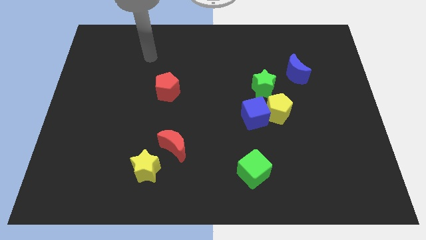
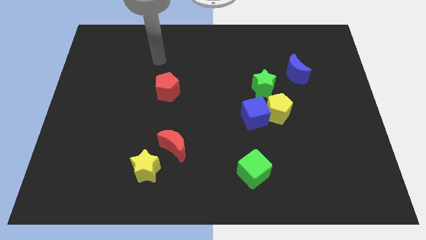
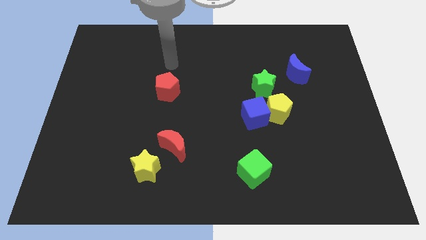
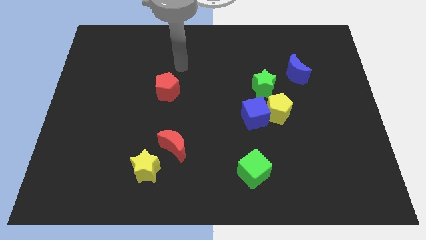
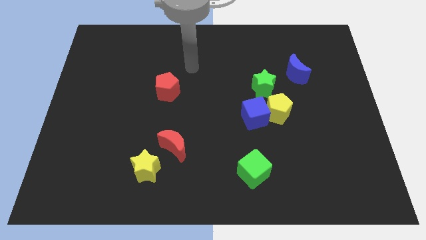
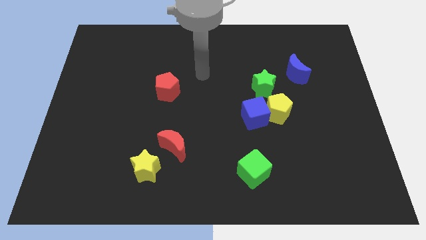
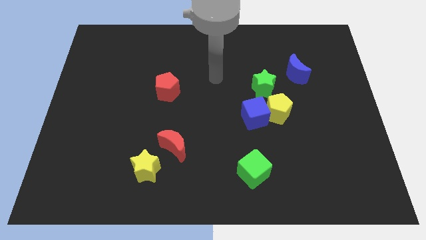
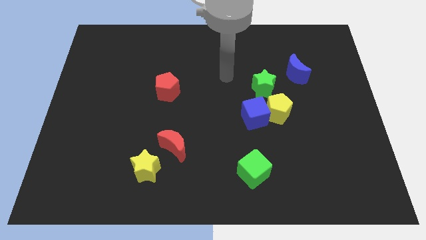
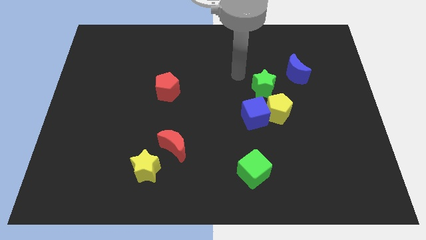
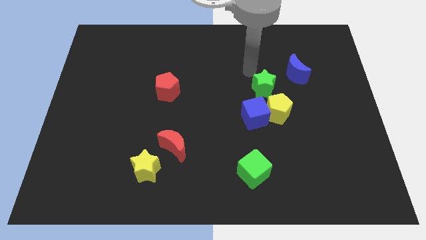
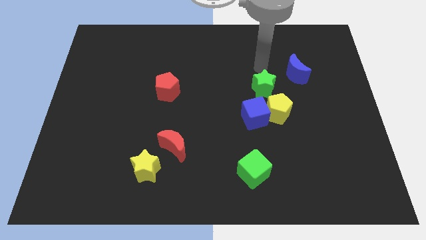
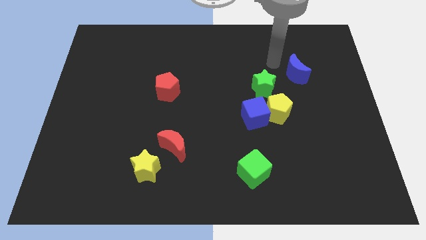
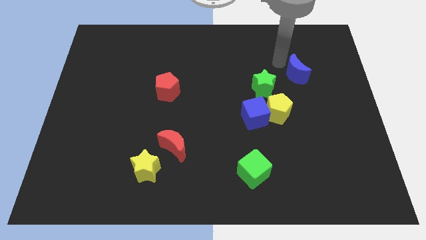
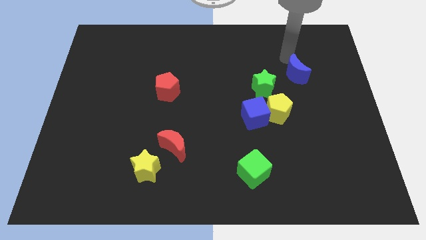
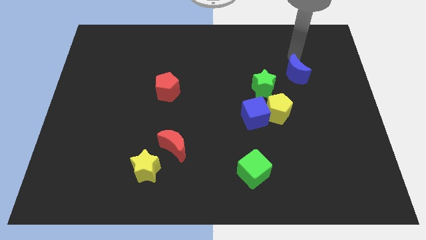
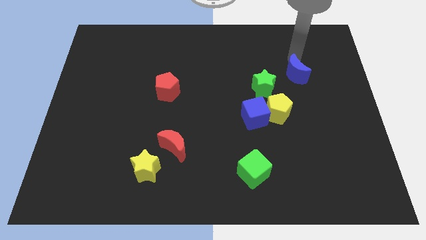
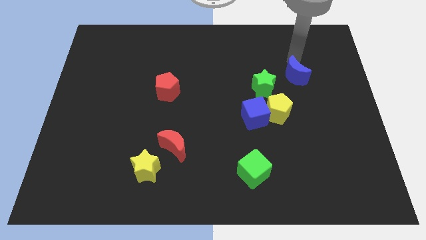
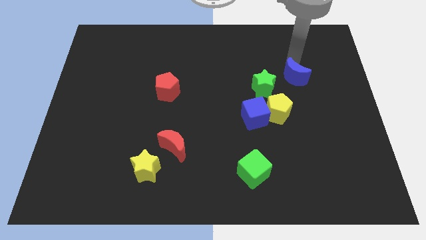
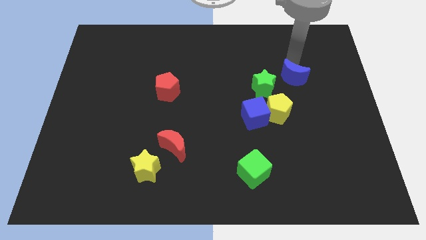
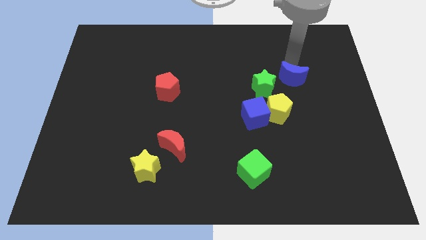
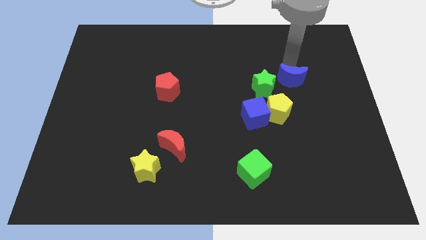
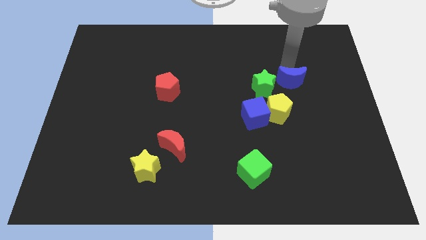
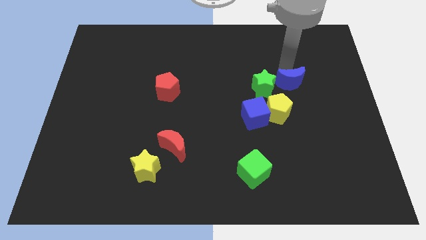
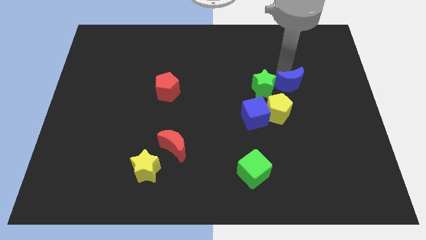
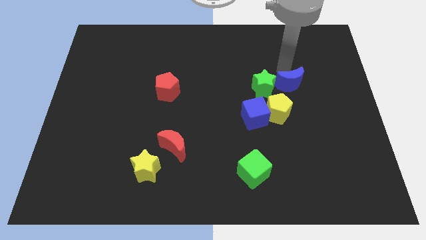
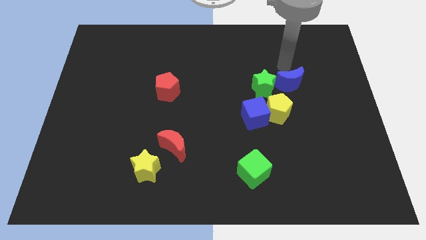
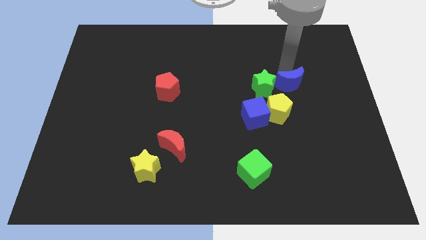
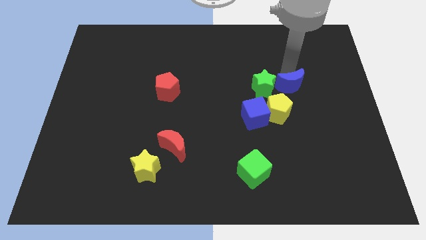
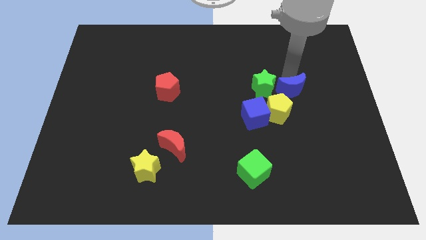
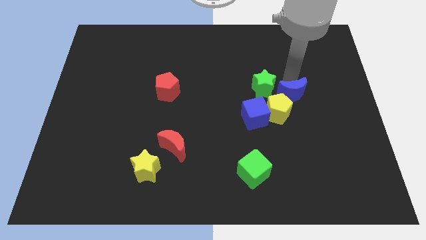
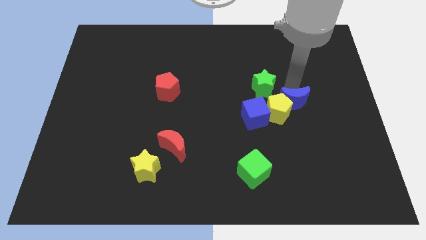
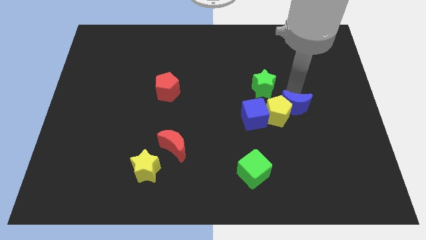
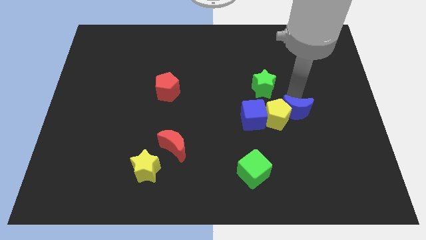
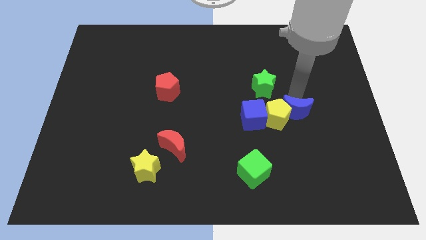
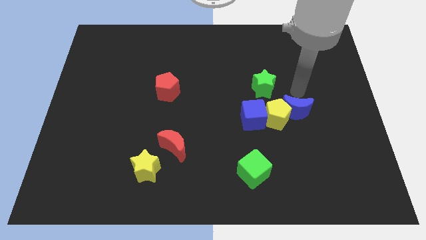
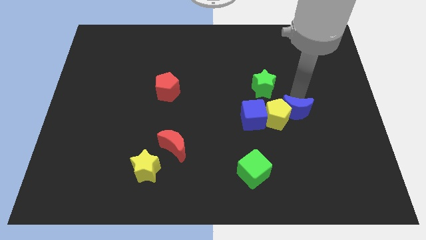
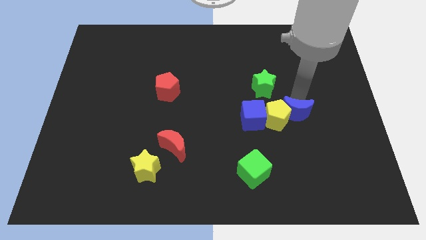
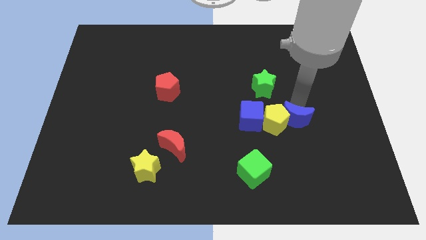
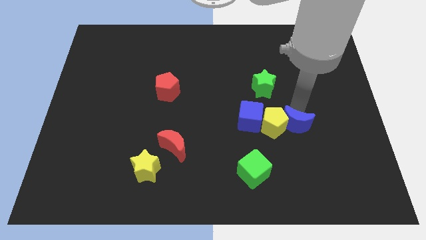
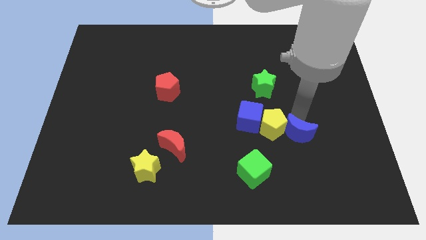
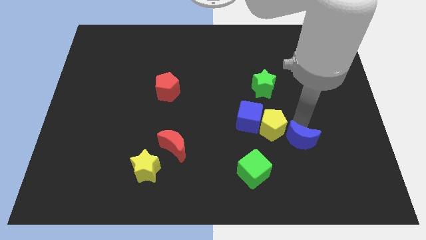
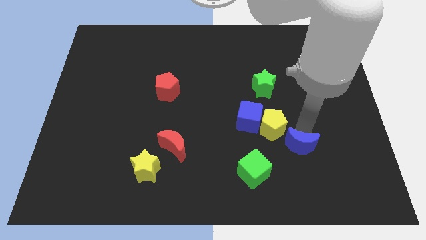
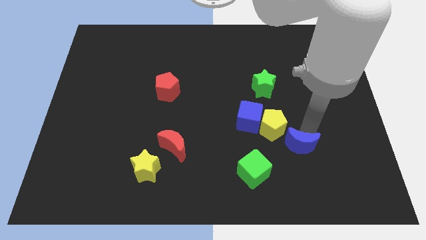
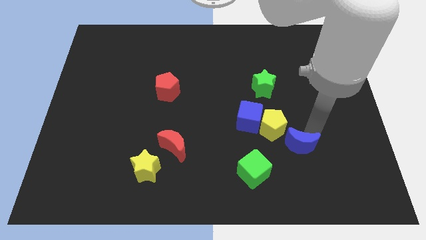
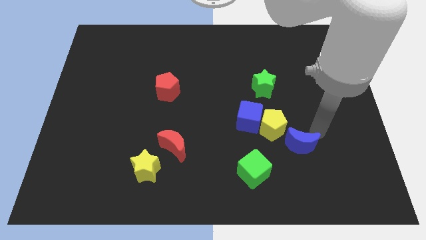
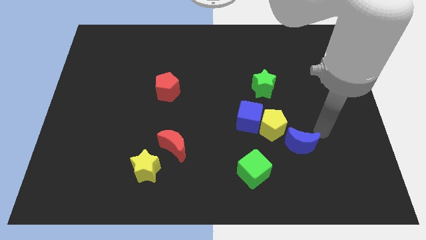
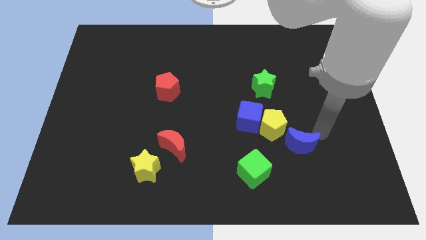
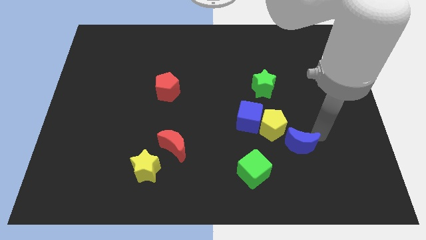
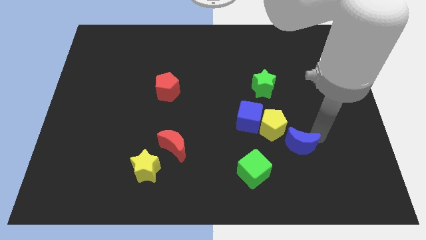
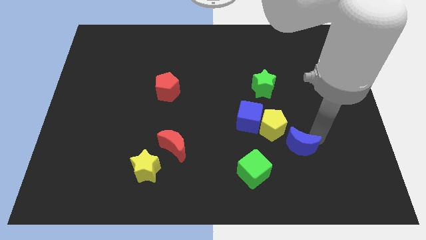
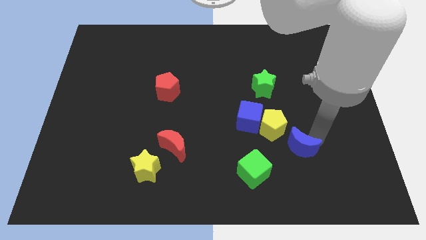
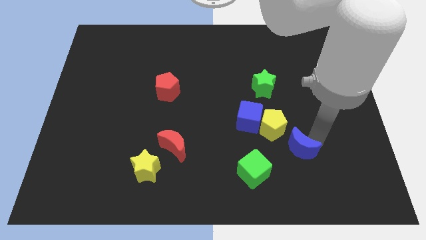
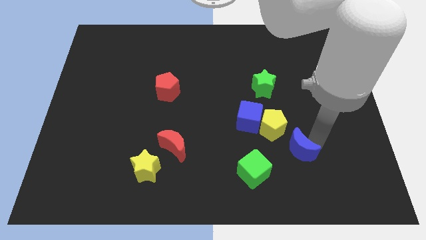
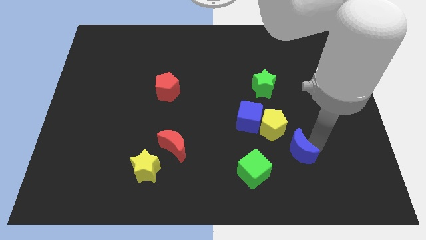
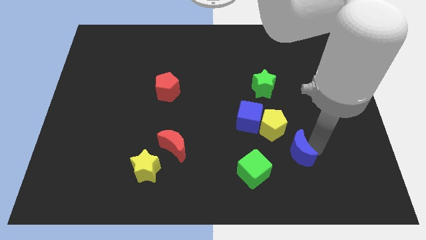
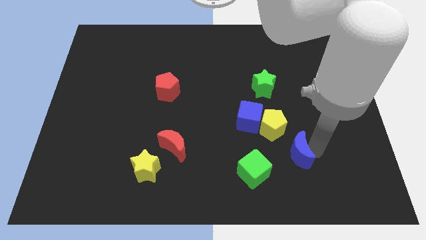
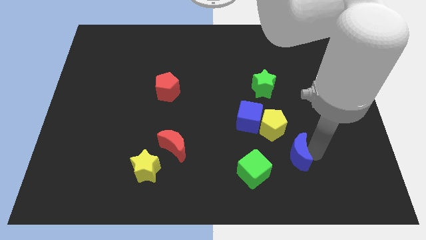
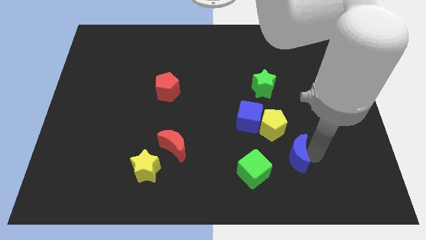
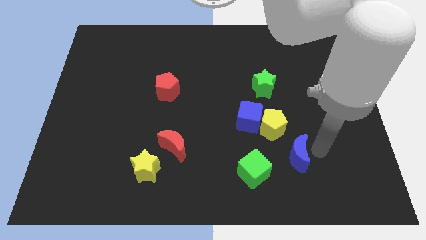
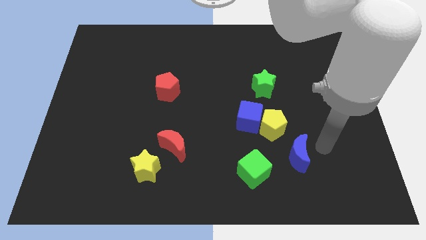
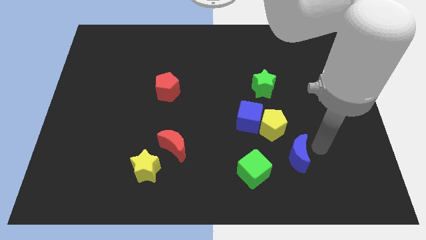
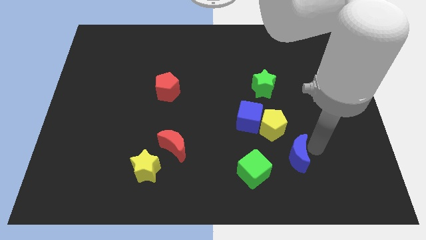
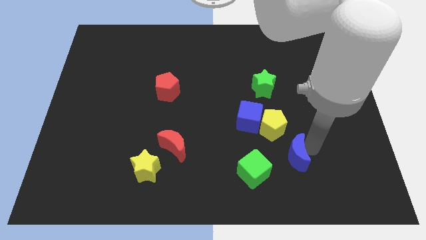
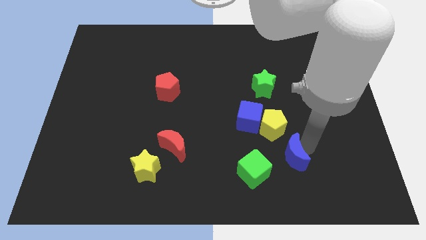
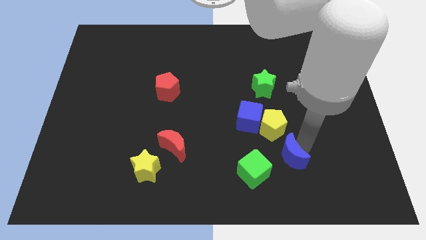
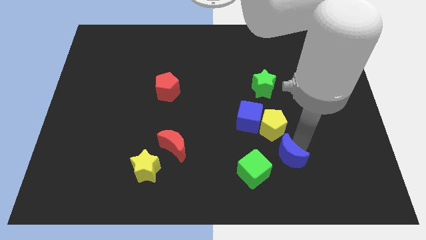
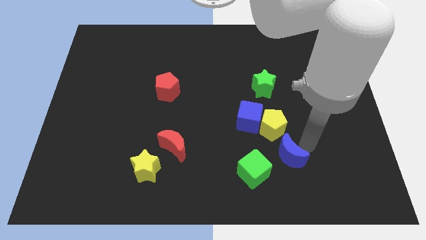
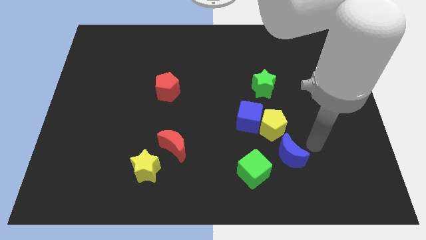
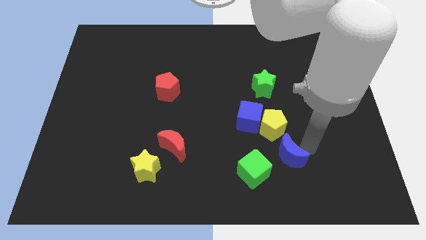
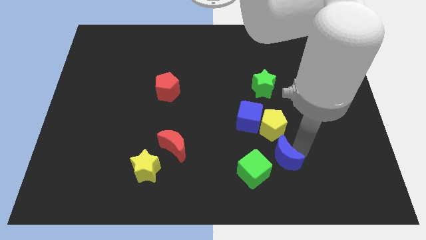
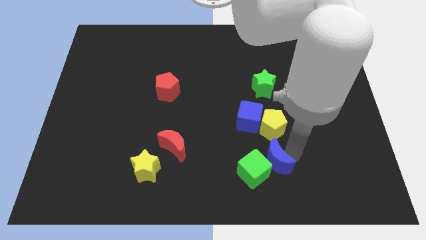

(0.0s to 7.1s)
push the blue moon towards the green cube

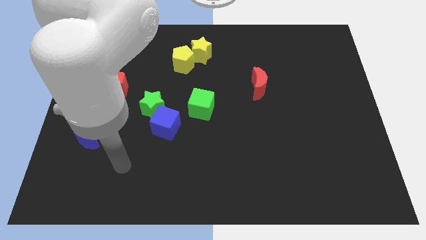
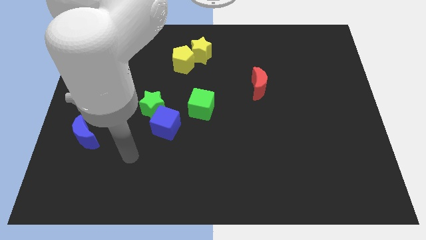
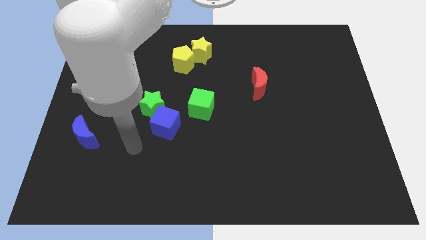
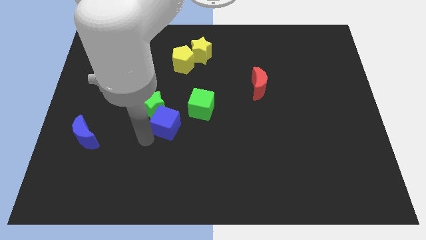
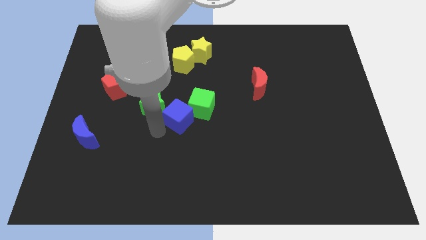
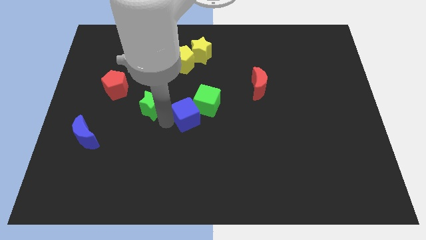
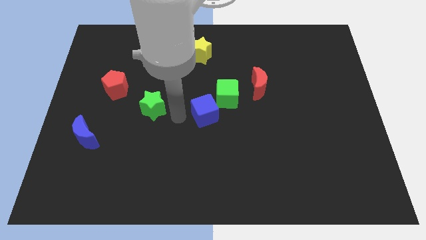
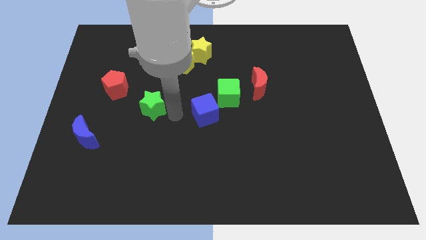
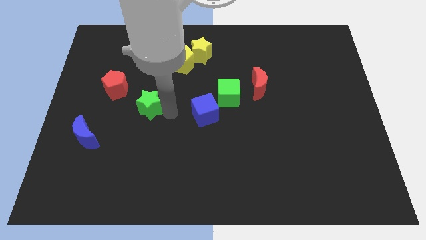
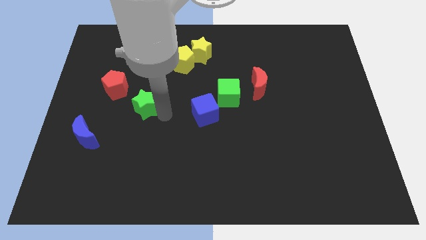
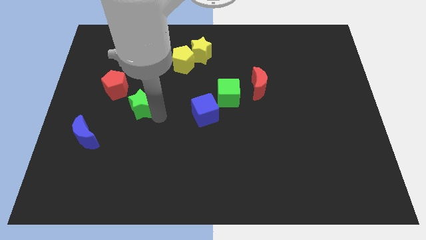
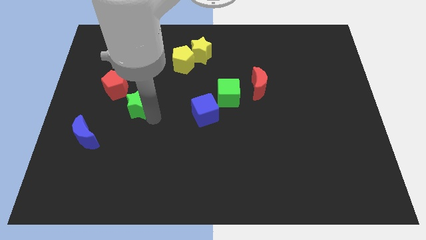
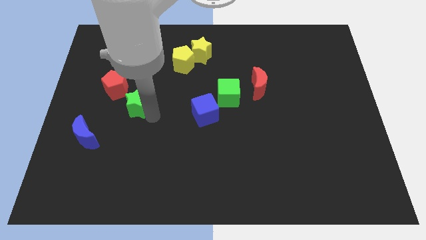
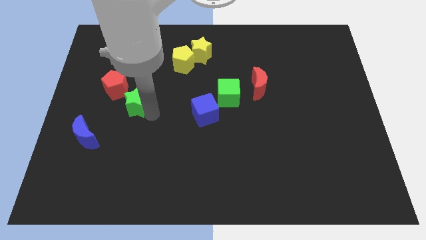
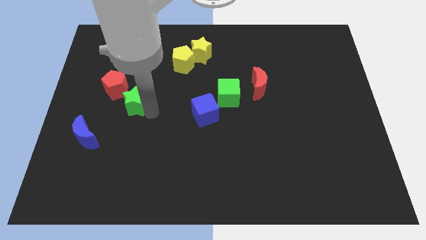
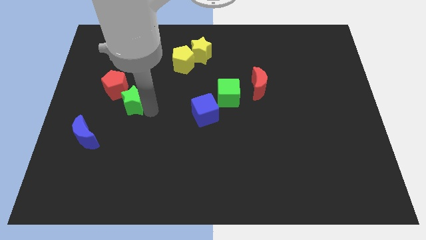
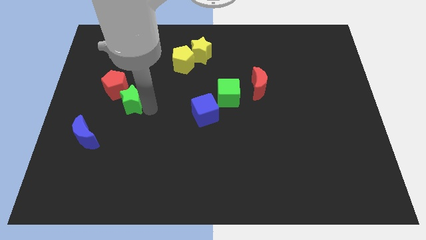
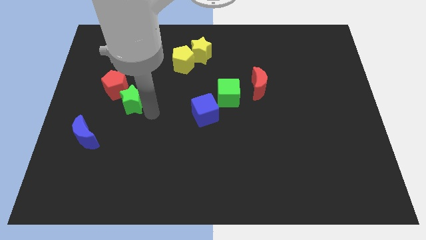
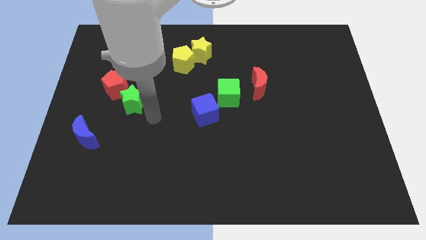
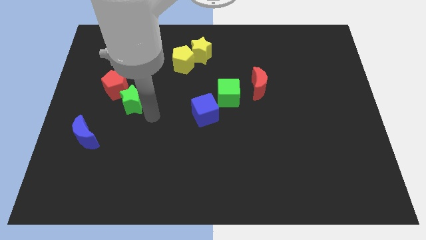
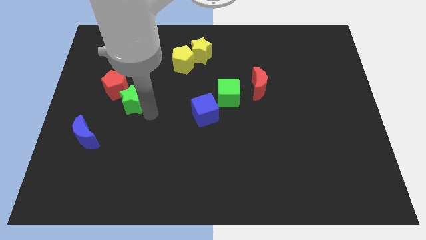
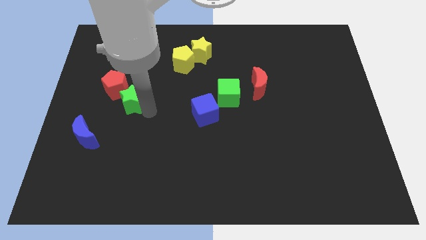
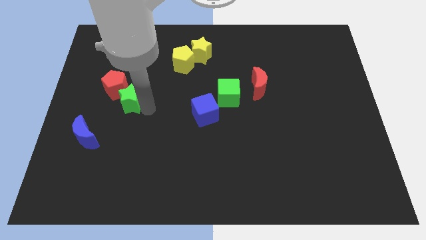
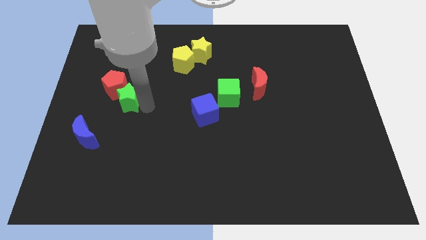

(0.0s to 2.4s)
put the green star close to the red pentagon
